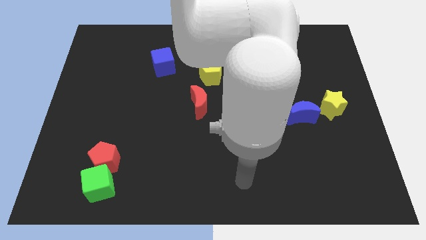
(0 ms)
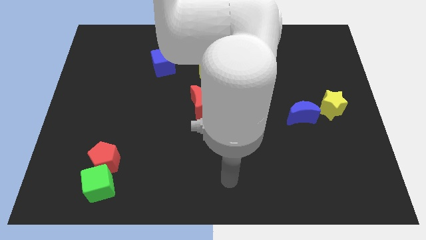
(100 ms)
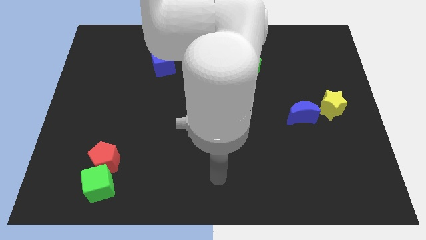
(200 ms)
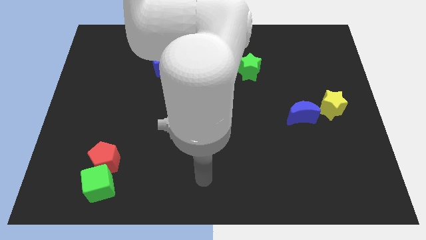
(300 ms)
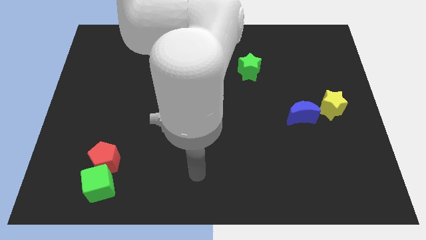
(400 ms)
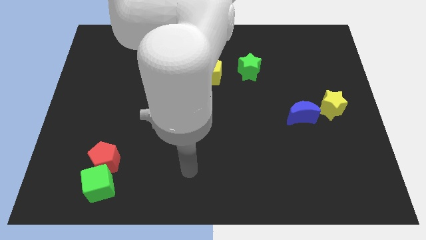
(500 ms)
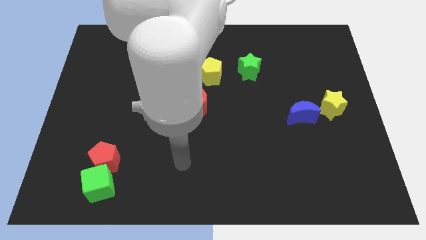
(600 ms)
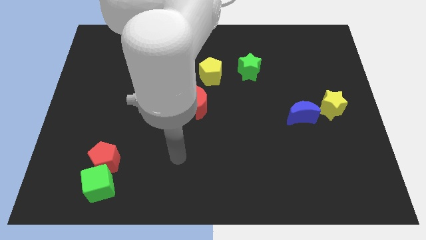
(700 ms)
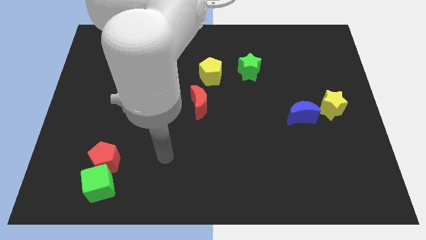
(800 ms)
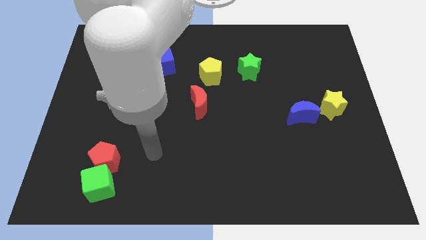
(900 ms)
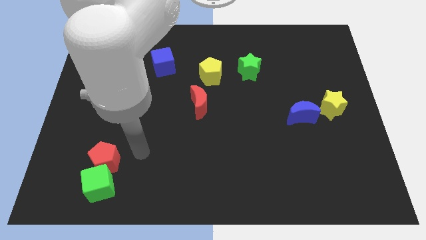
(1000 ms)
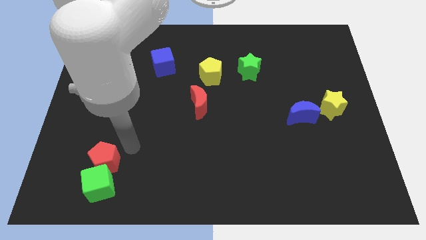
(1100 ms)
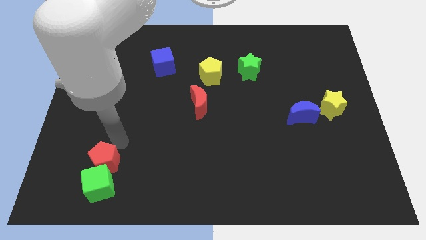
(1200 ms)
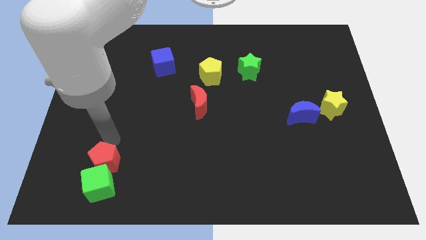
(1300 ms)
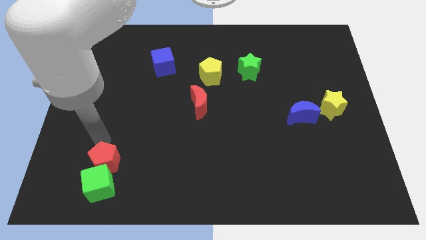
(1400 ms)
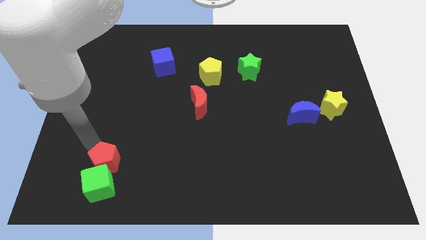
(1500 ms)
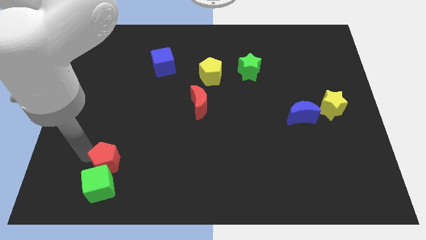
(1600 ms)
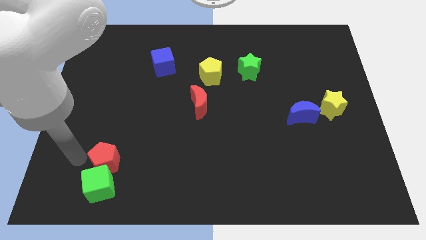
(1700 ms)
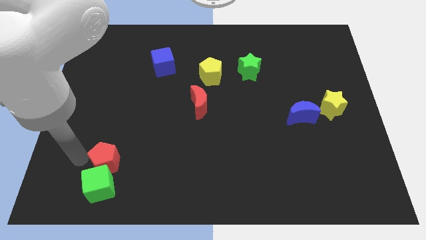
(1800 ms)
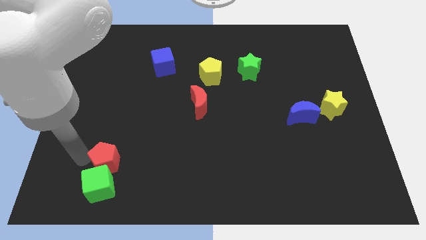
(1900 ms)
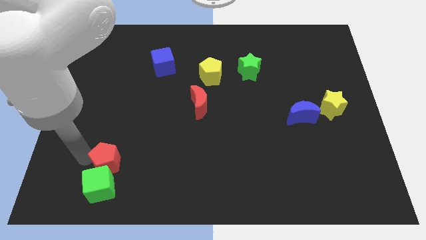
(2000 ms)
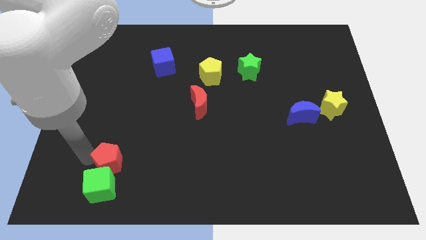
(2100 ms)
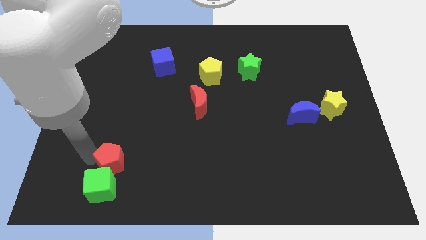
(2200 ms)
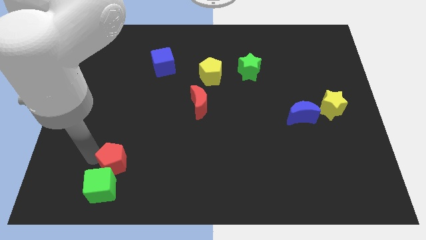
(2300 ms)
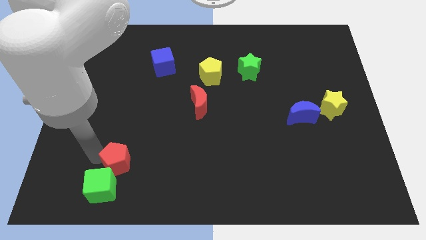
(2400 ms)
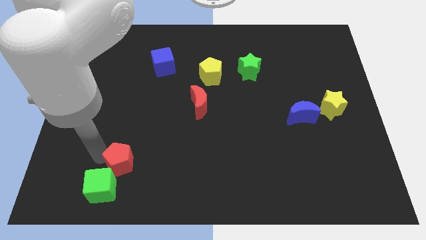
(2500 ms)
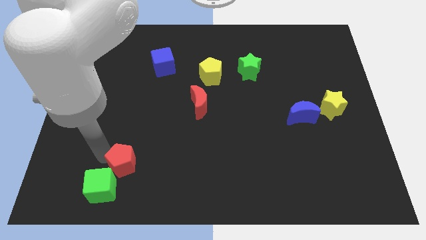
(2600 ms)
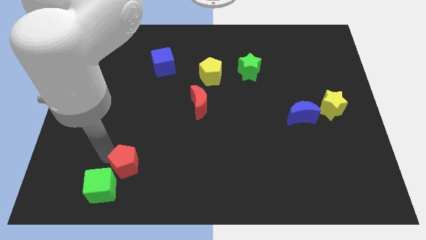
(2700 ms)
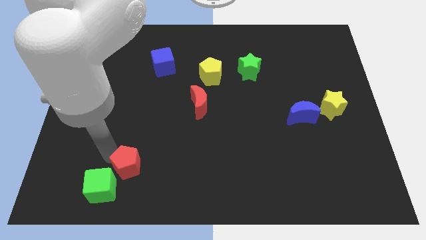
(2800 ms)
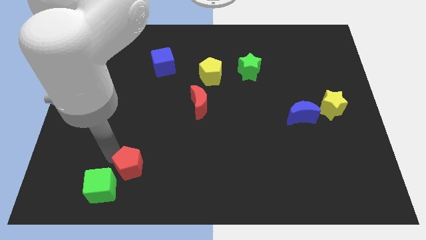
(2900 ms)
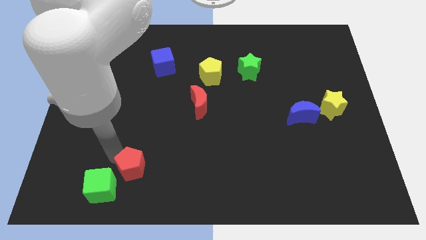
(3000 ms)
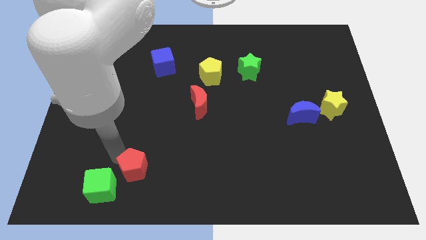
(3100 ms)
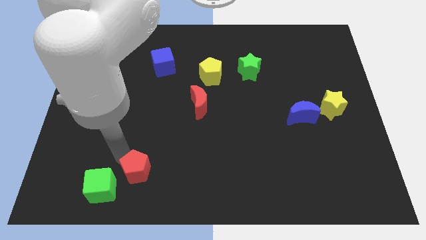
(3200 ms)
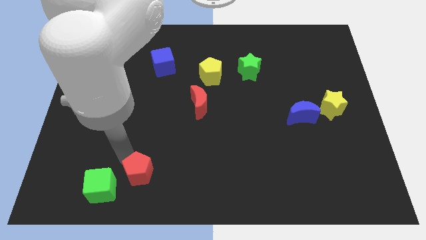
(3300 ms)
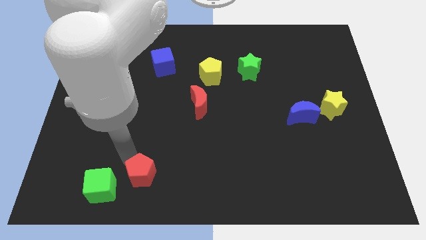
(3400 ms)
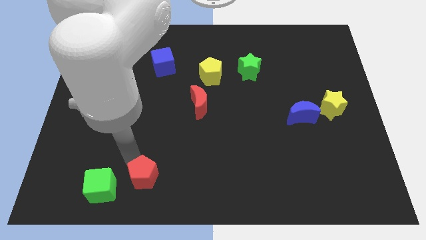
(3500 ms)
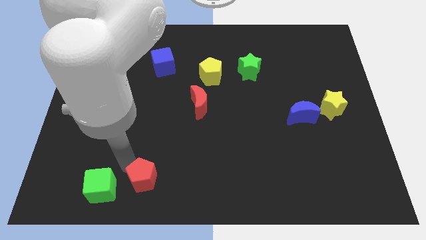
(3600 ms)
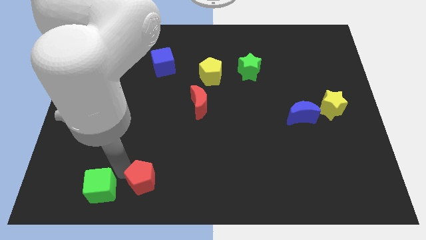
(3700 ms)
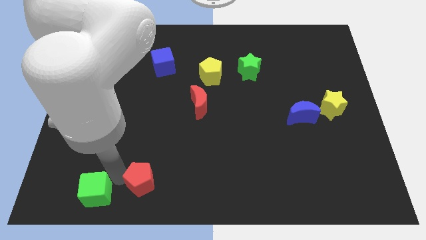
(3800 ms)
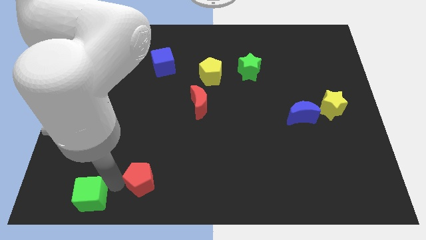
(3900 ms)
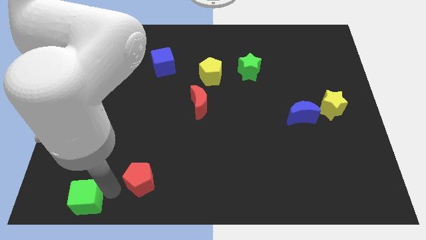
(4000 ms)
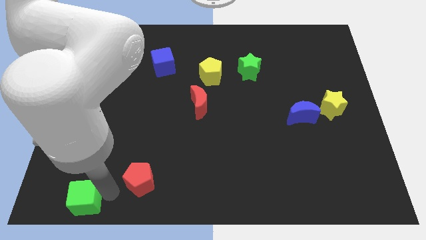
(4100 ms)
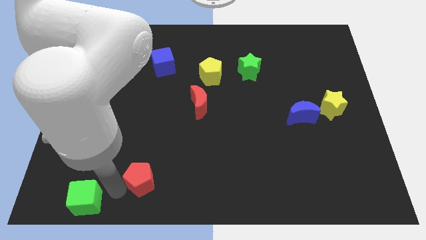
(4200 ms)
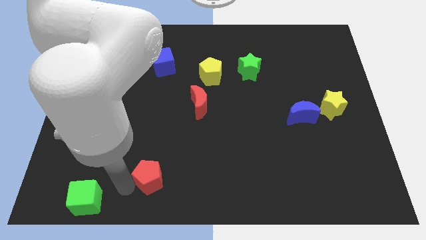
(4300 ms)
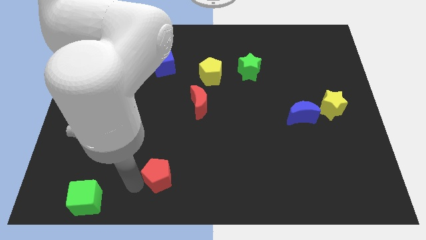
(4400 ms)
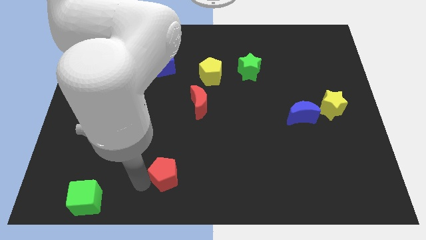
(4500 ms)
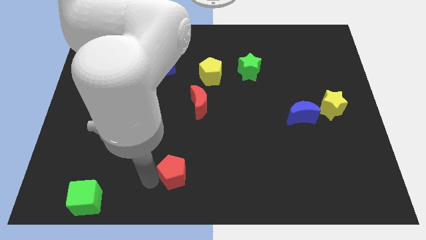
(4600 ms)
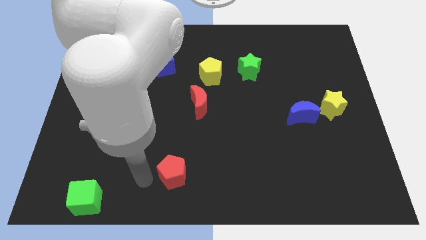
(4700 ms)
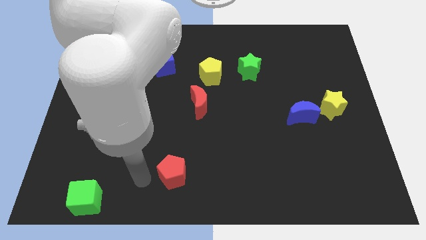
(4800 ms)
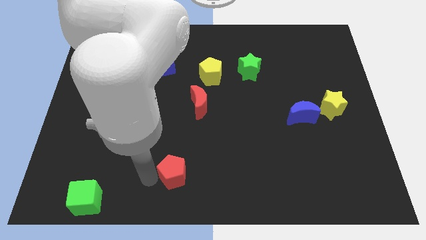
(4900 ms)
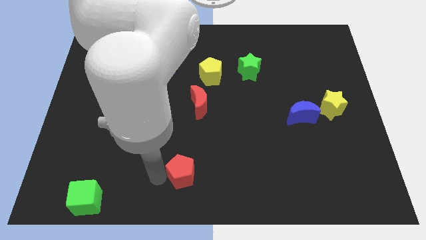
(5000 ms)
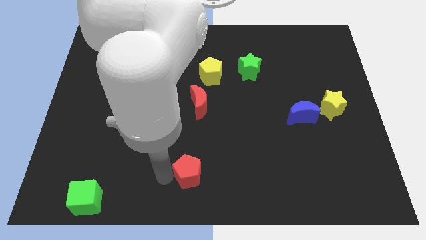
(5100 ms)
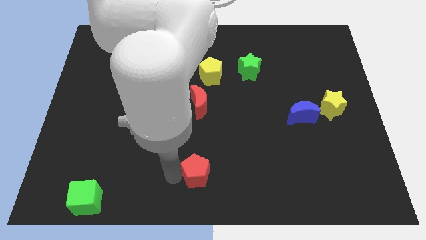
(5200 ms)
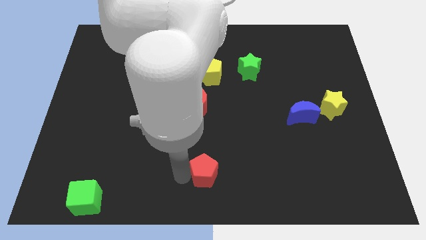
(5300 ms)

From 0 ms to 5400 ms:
push the red pentagon right

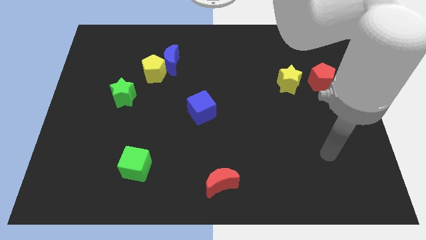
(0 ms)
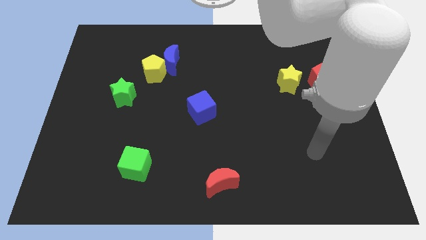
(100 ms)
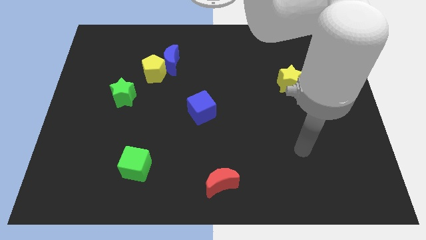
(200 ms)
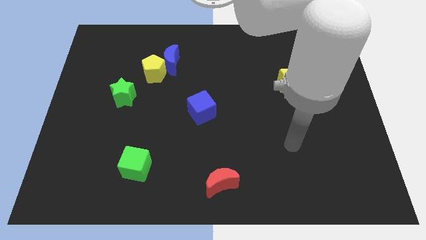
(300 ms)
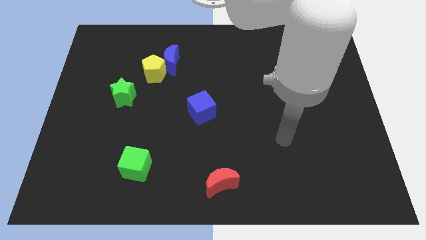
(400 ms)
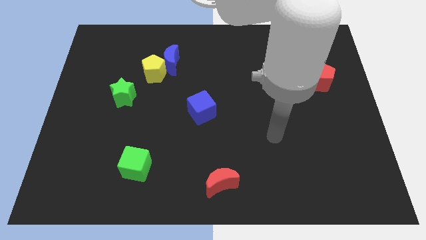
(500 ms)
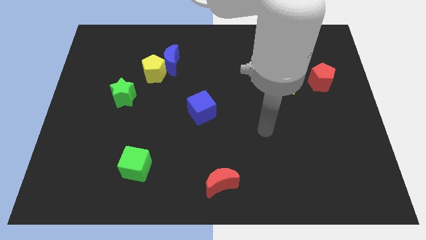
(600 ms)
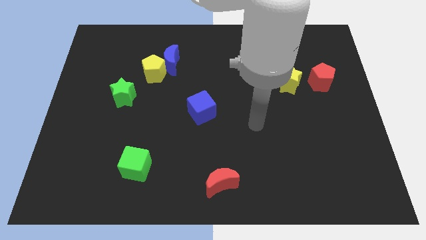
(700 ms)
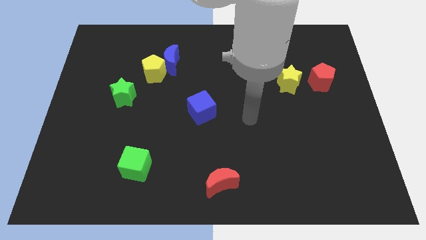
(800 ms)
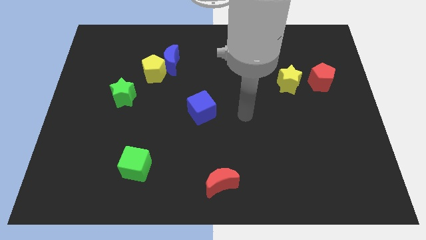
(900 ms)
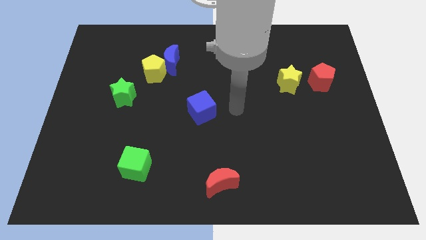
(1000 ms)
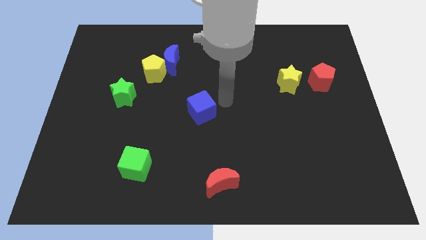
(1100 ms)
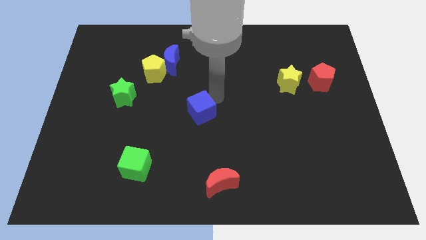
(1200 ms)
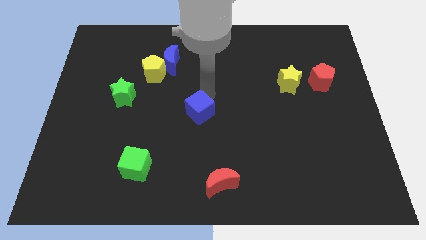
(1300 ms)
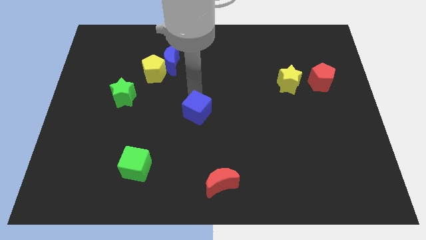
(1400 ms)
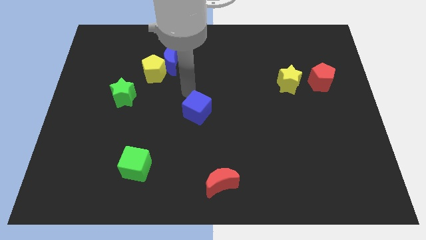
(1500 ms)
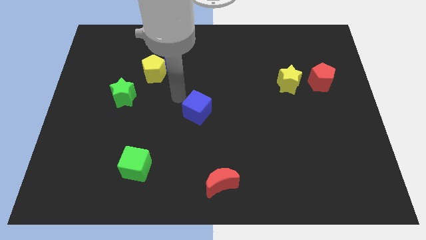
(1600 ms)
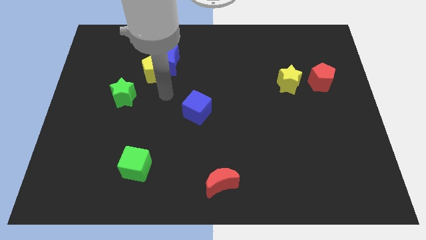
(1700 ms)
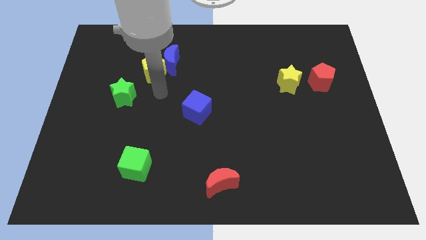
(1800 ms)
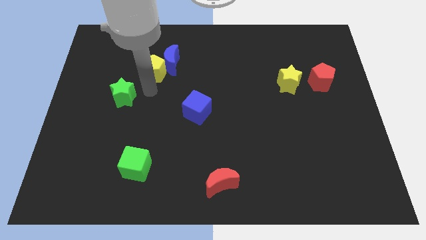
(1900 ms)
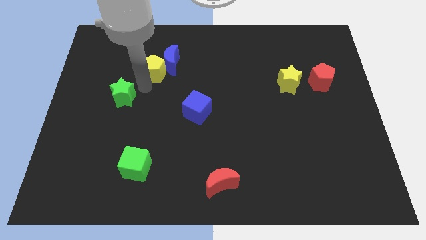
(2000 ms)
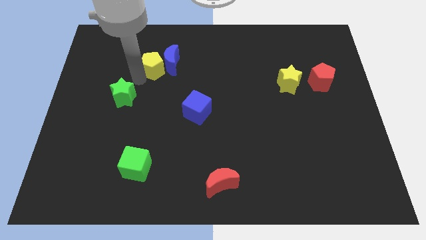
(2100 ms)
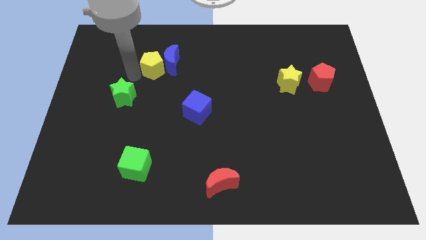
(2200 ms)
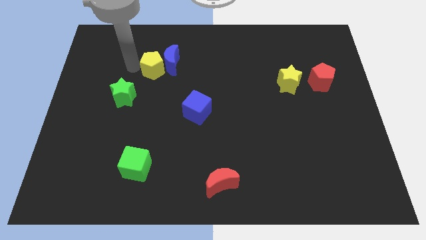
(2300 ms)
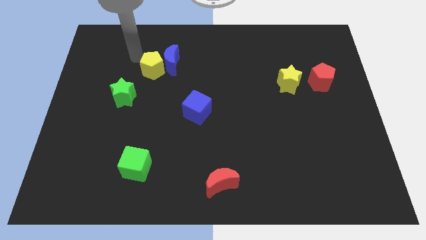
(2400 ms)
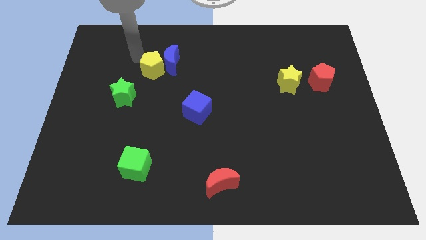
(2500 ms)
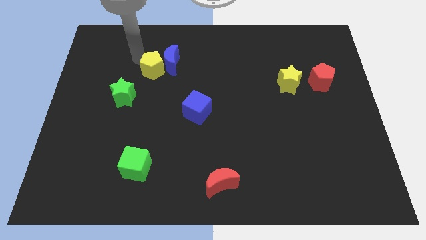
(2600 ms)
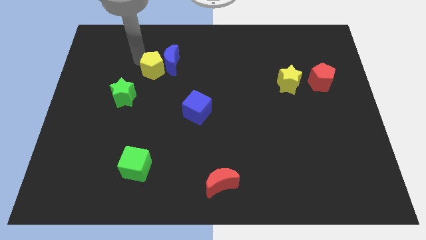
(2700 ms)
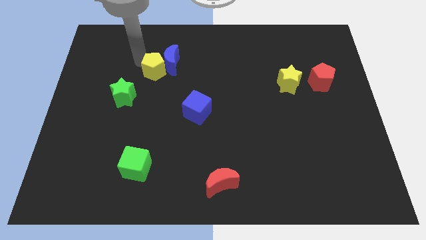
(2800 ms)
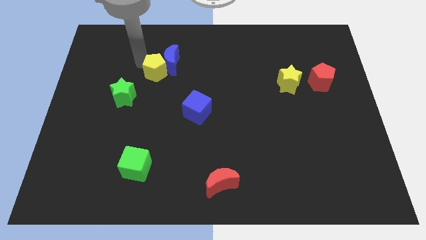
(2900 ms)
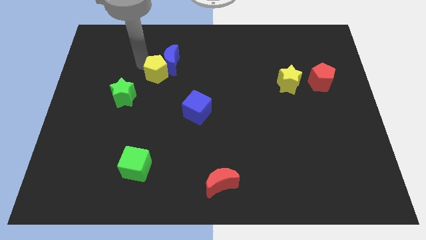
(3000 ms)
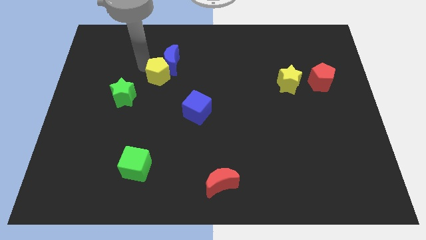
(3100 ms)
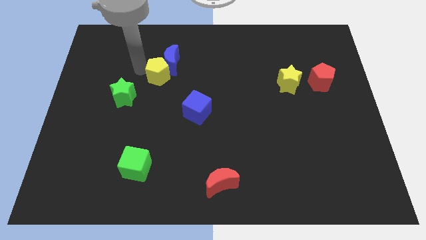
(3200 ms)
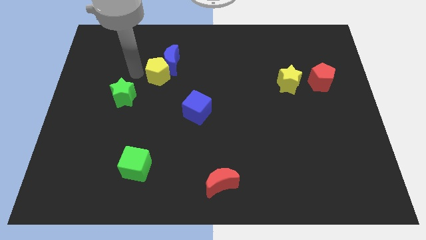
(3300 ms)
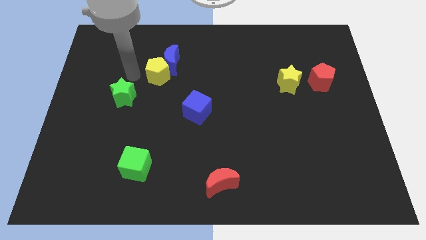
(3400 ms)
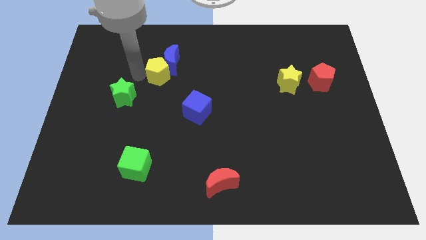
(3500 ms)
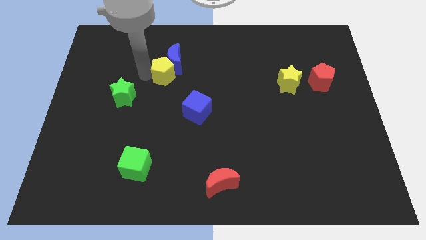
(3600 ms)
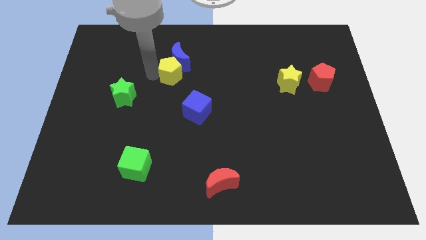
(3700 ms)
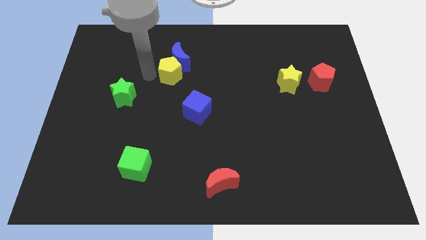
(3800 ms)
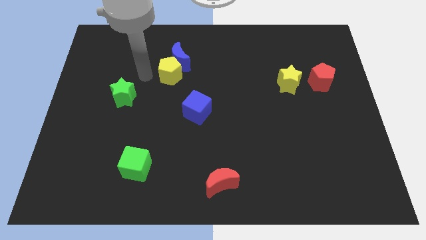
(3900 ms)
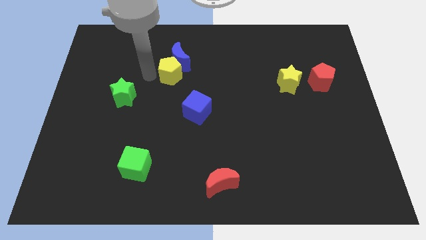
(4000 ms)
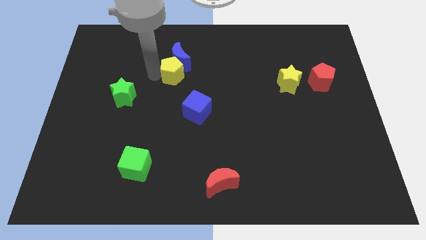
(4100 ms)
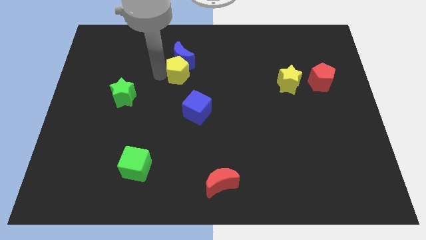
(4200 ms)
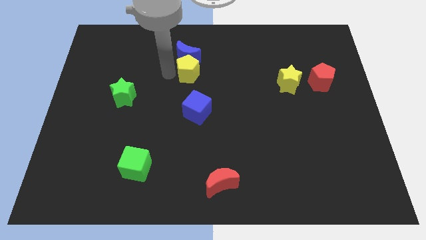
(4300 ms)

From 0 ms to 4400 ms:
slightly slide the yellow pentagon to the right
